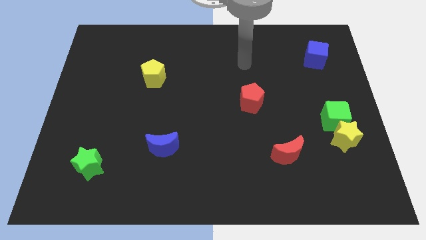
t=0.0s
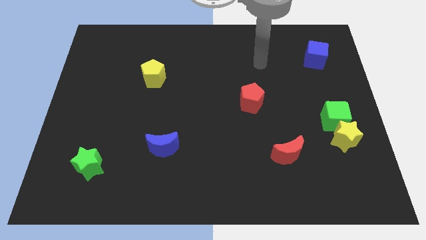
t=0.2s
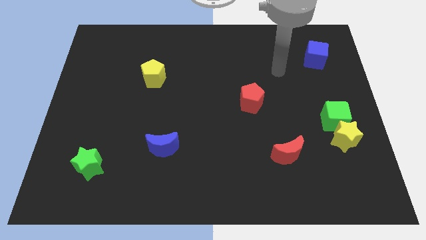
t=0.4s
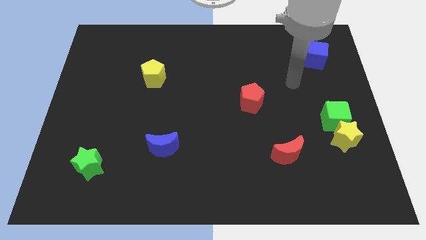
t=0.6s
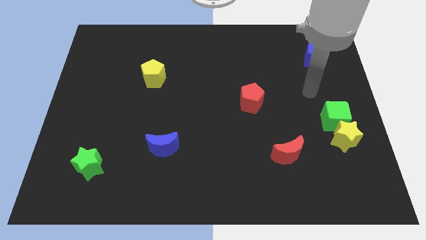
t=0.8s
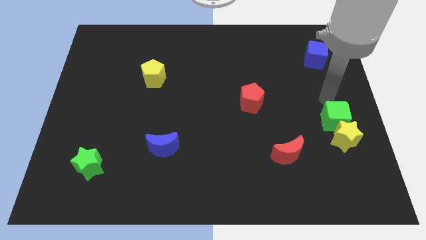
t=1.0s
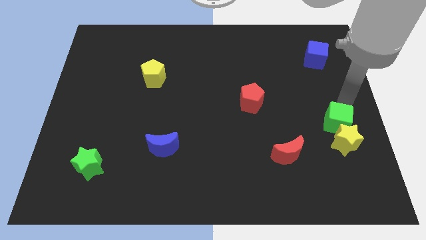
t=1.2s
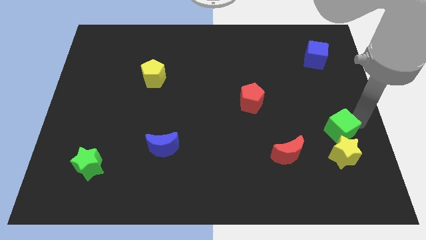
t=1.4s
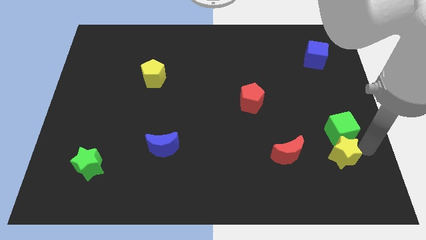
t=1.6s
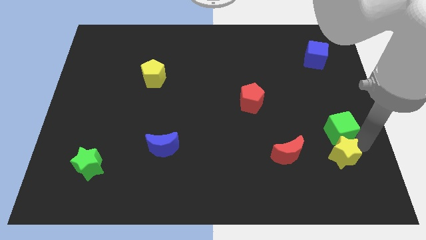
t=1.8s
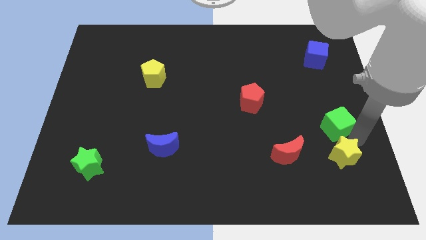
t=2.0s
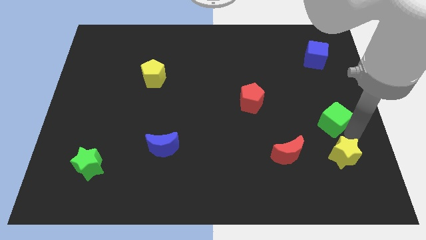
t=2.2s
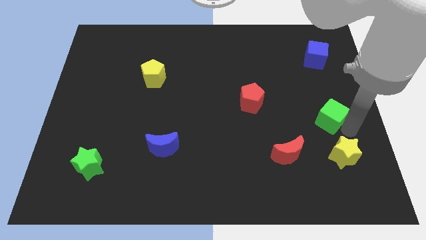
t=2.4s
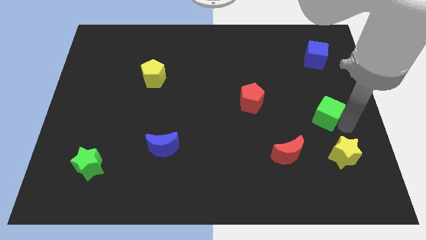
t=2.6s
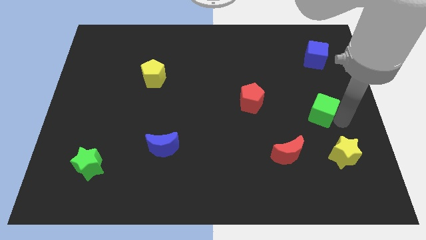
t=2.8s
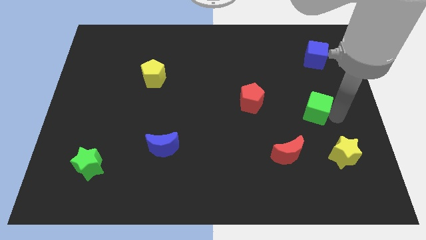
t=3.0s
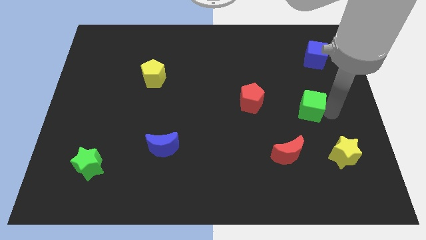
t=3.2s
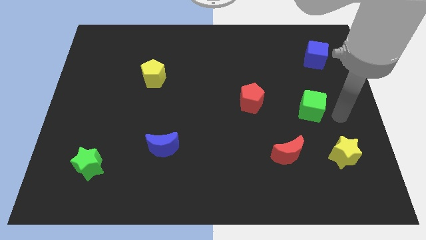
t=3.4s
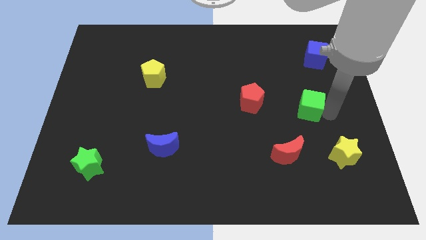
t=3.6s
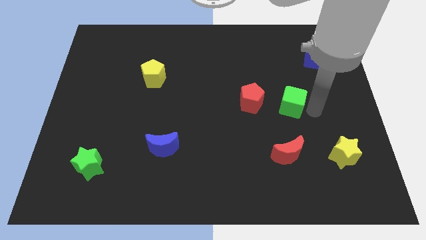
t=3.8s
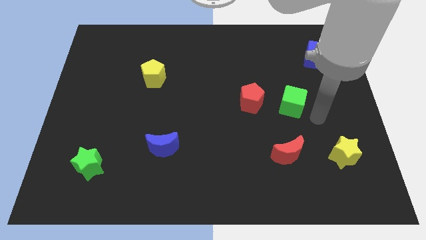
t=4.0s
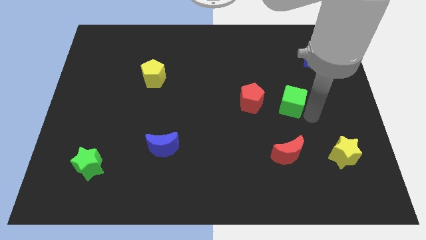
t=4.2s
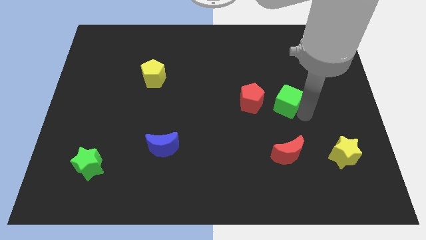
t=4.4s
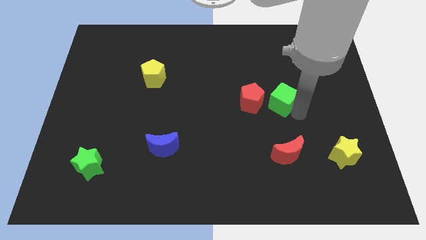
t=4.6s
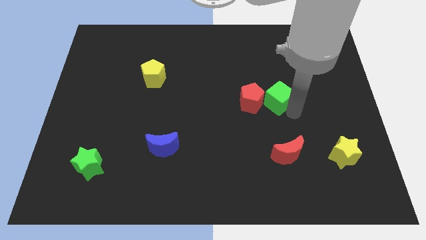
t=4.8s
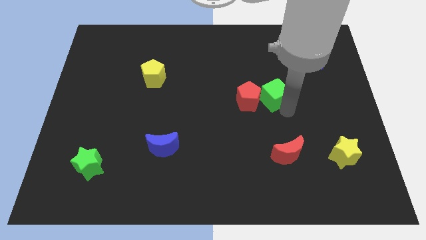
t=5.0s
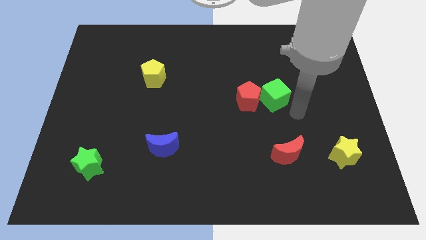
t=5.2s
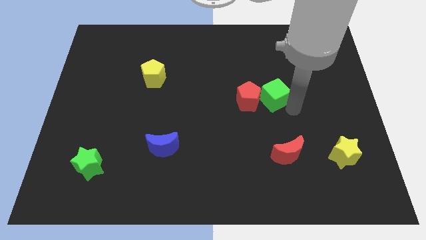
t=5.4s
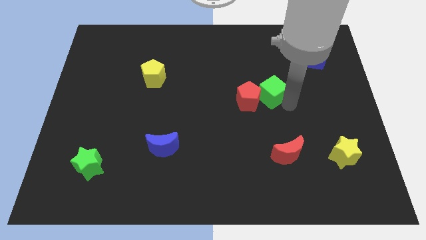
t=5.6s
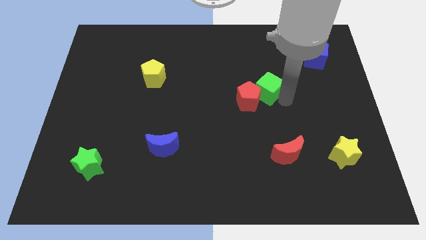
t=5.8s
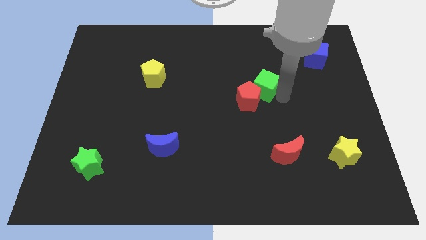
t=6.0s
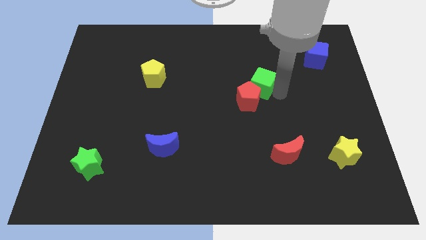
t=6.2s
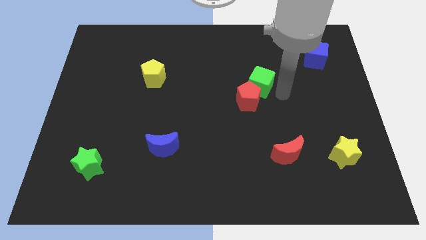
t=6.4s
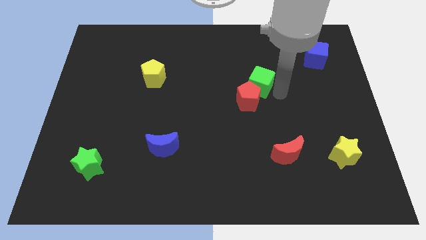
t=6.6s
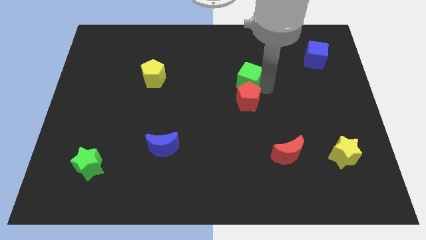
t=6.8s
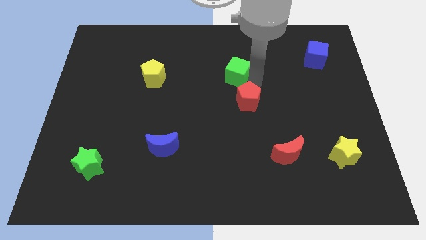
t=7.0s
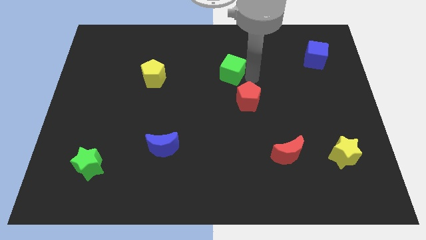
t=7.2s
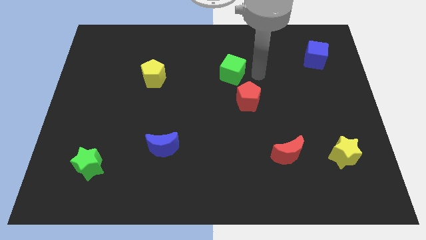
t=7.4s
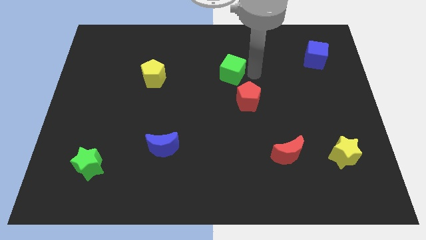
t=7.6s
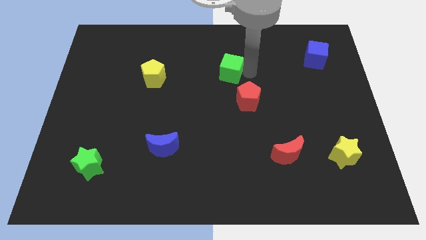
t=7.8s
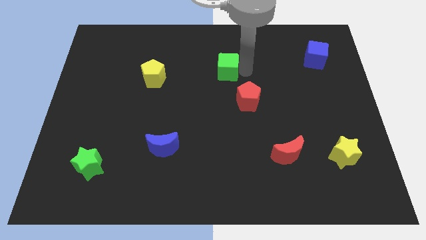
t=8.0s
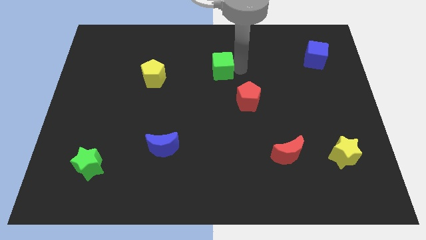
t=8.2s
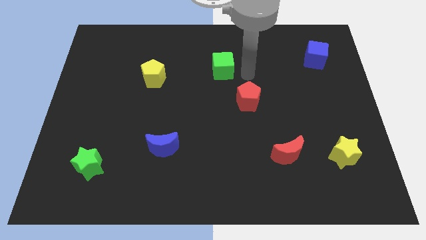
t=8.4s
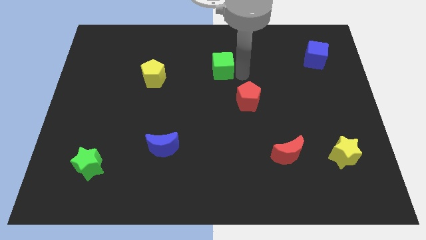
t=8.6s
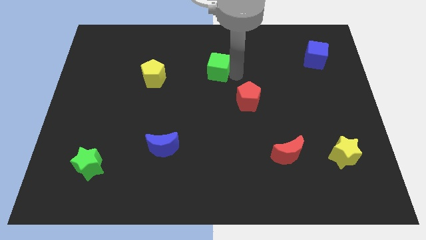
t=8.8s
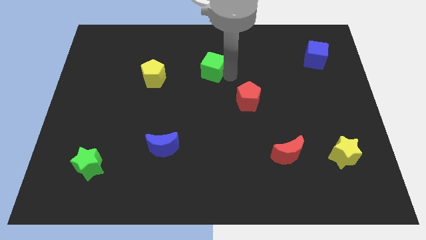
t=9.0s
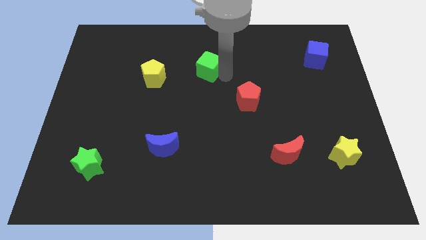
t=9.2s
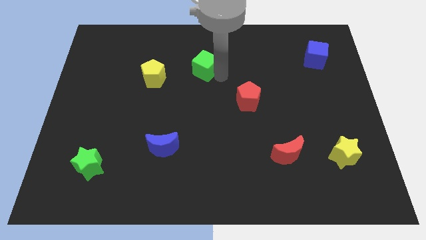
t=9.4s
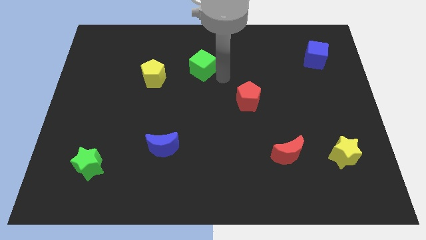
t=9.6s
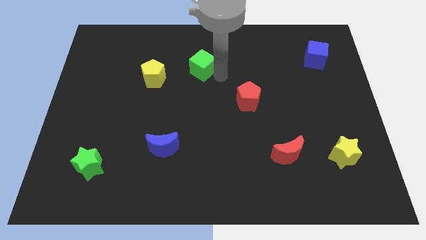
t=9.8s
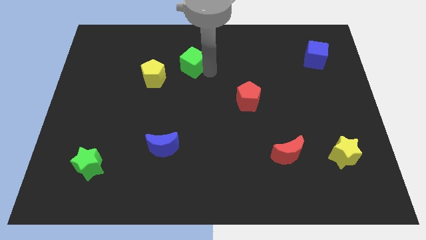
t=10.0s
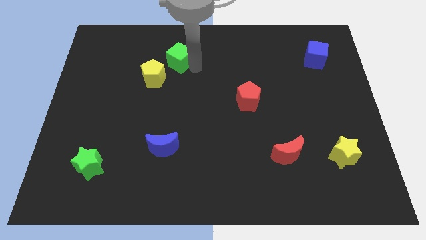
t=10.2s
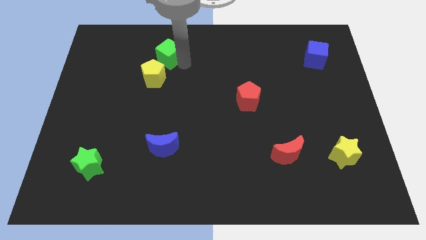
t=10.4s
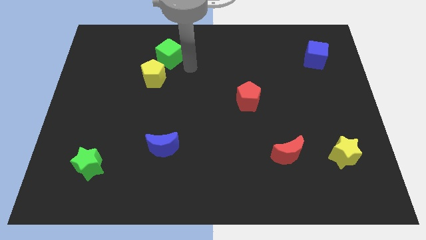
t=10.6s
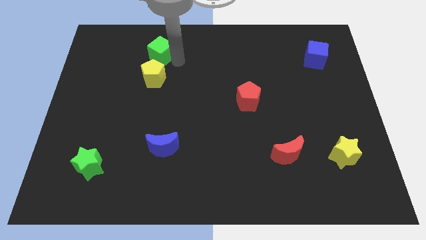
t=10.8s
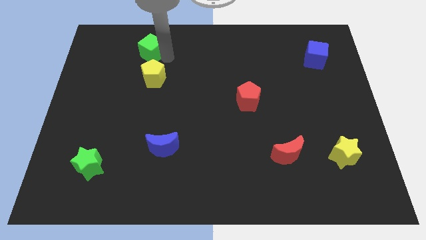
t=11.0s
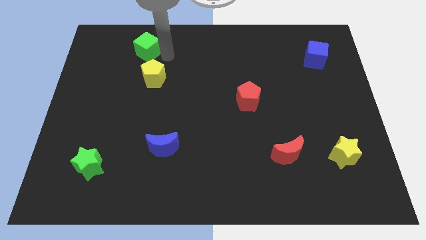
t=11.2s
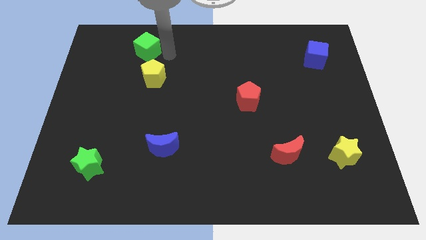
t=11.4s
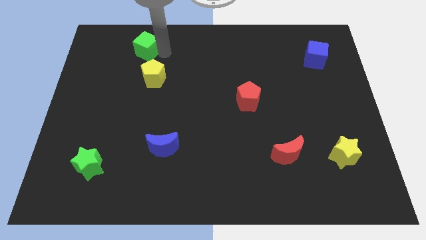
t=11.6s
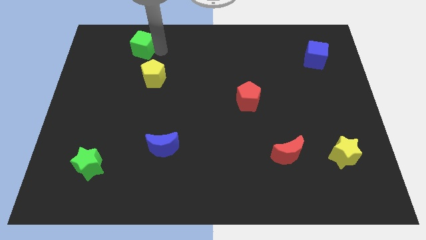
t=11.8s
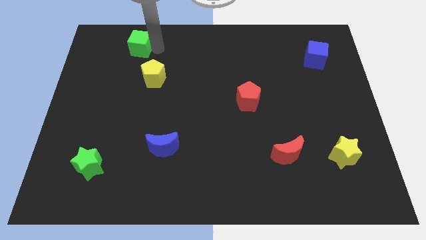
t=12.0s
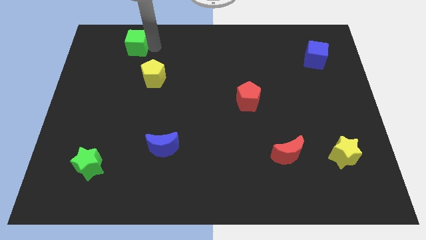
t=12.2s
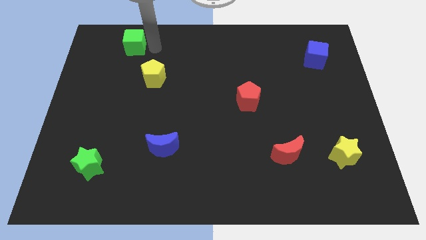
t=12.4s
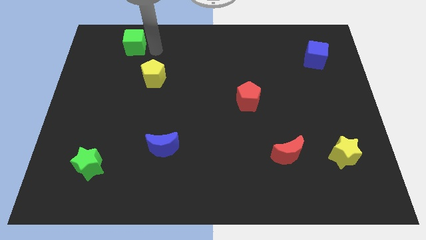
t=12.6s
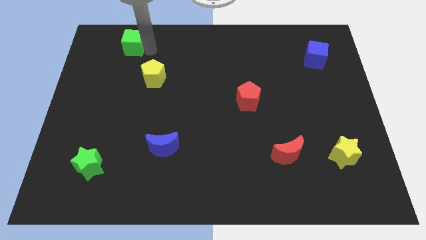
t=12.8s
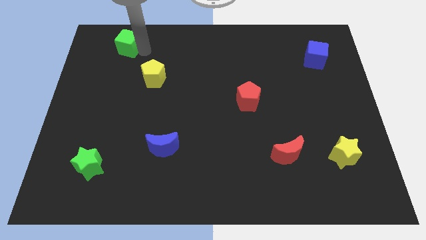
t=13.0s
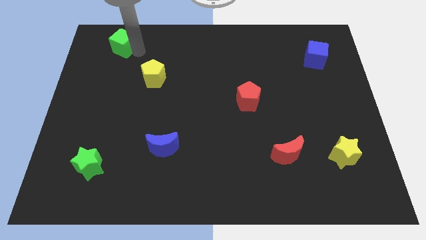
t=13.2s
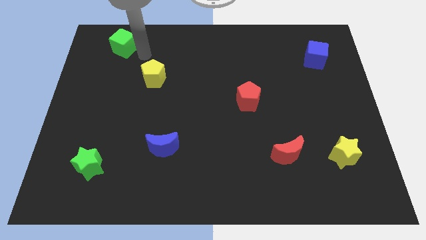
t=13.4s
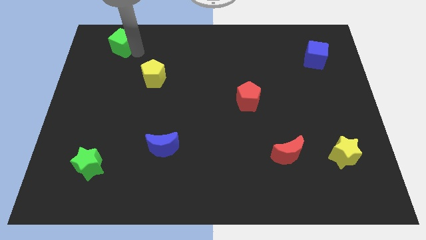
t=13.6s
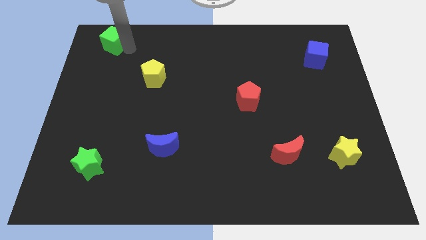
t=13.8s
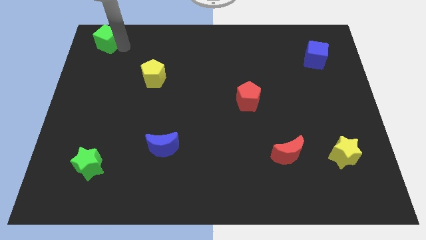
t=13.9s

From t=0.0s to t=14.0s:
move the green cube to the upper left corner

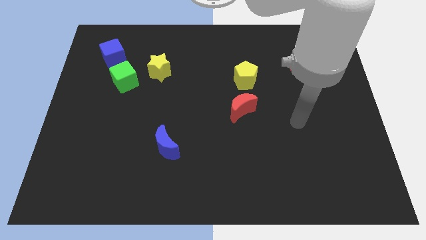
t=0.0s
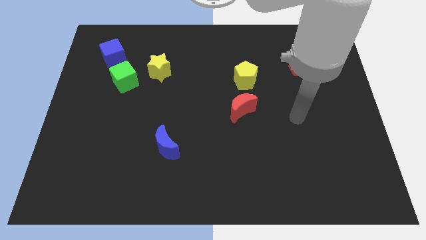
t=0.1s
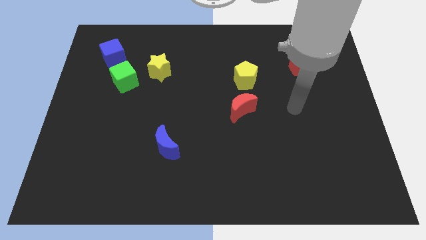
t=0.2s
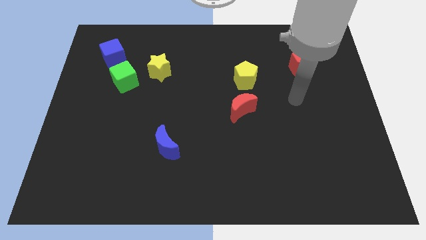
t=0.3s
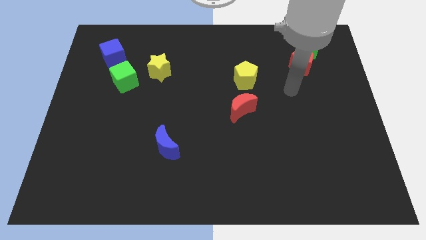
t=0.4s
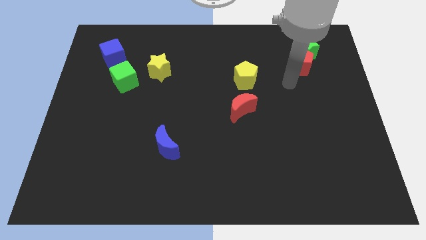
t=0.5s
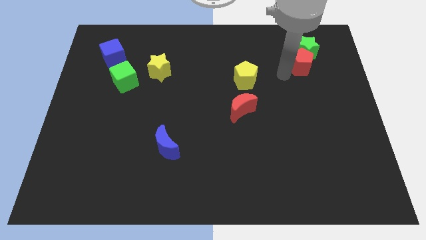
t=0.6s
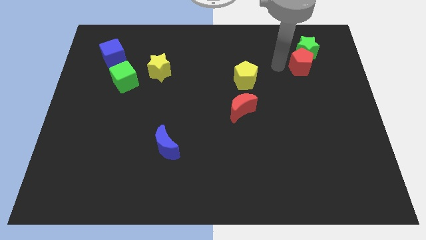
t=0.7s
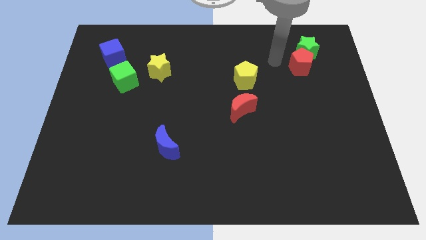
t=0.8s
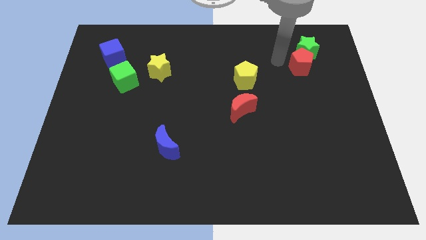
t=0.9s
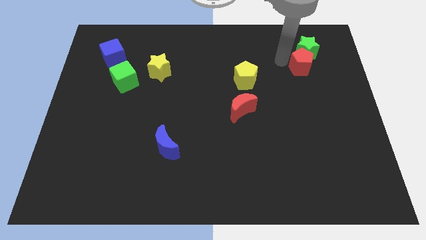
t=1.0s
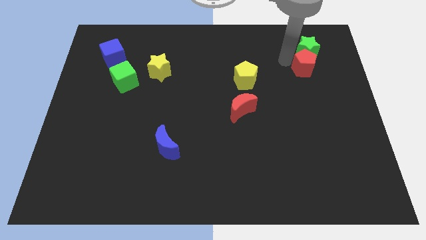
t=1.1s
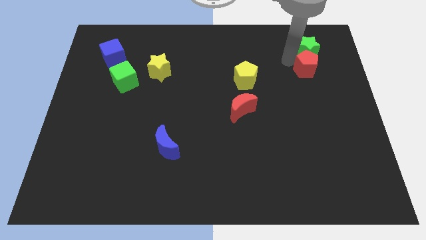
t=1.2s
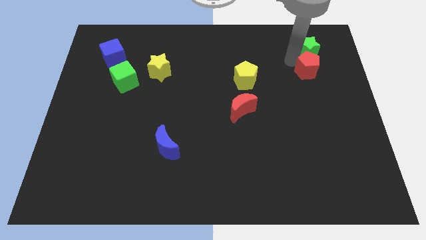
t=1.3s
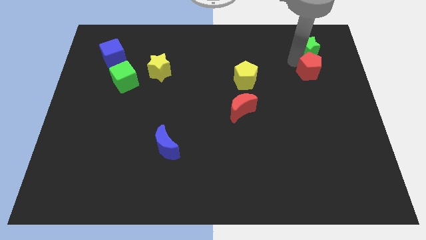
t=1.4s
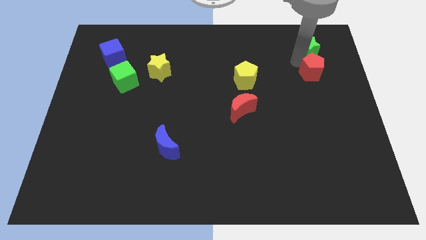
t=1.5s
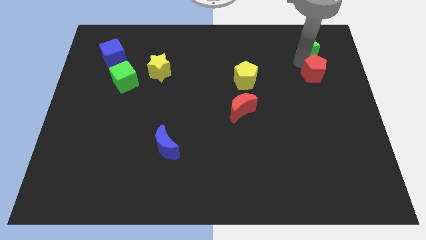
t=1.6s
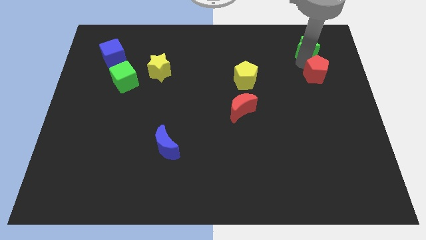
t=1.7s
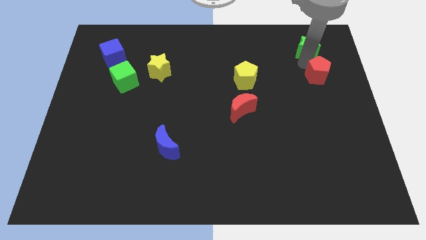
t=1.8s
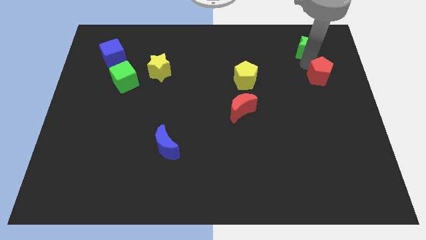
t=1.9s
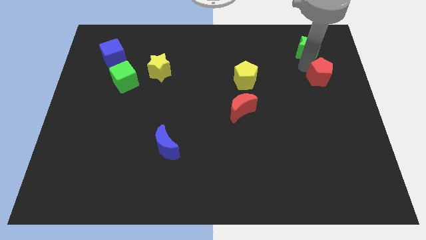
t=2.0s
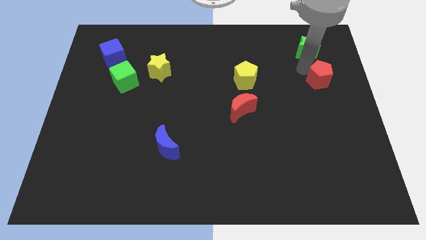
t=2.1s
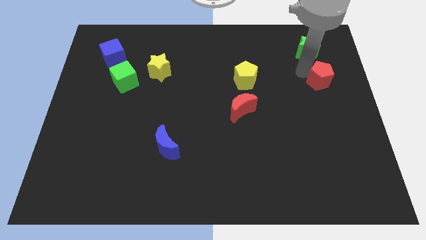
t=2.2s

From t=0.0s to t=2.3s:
push the red pentagon to the right side of the board
